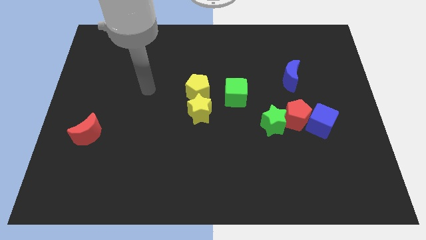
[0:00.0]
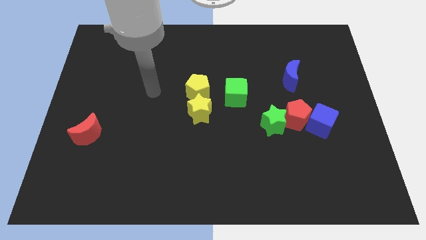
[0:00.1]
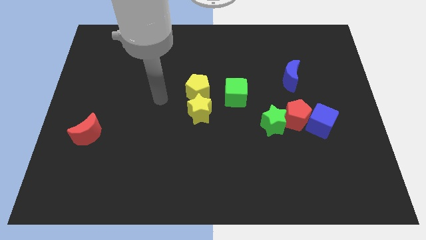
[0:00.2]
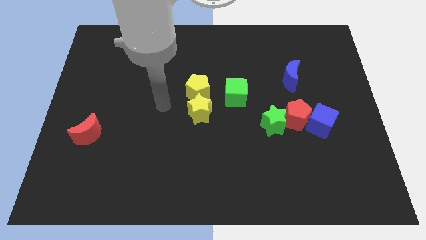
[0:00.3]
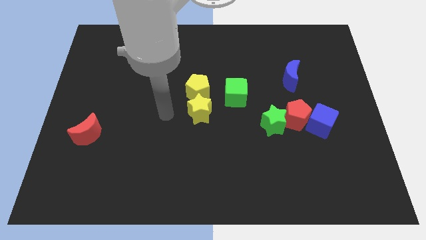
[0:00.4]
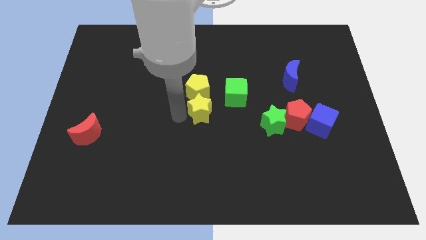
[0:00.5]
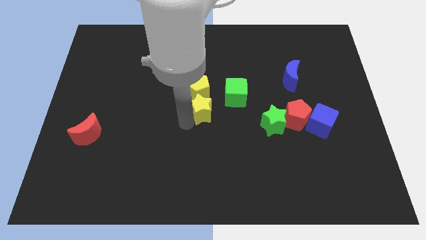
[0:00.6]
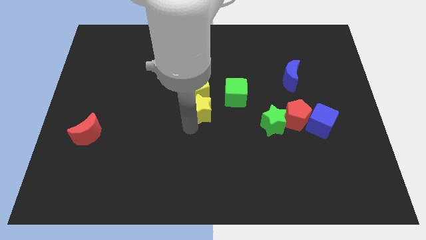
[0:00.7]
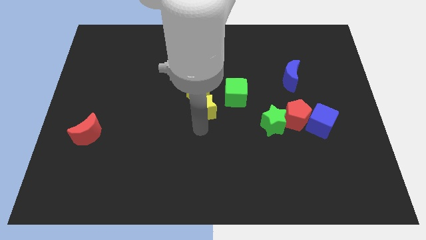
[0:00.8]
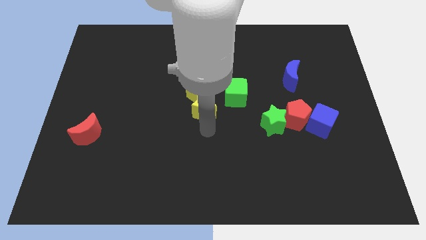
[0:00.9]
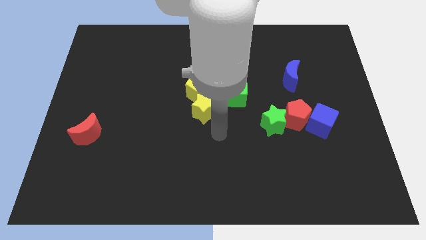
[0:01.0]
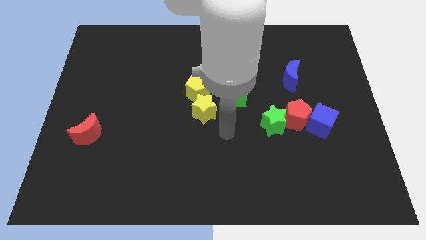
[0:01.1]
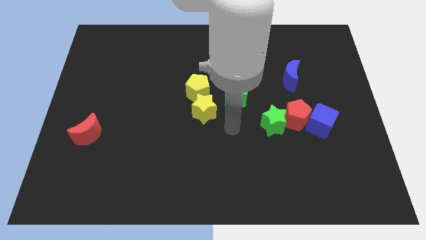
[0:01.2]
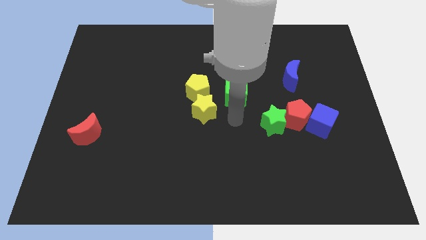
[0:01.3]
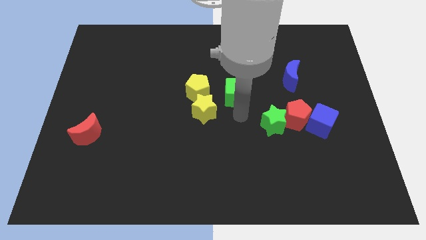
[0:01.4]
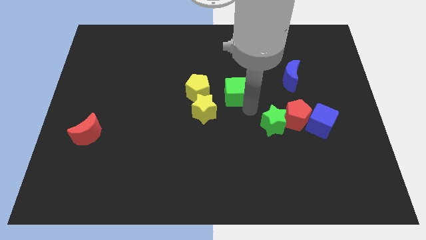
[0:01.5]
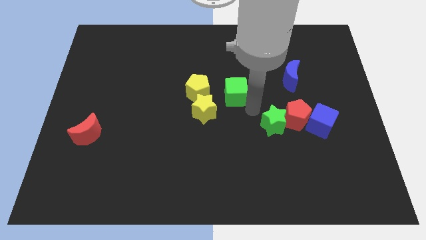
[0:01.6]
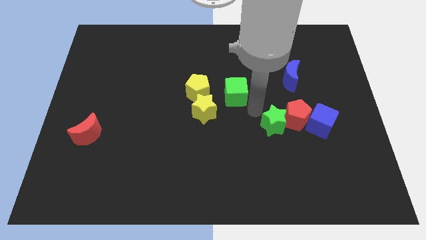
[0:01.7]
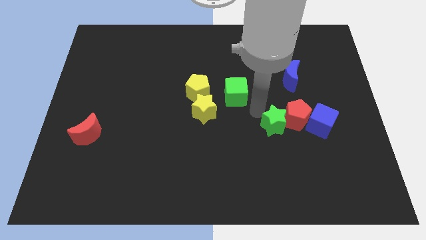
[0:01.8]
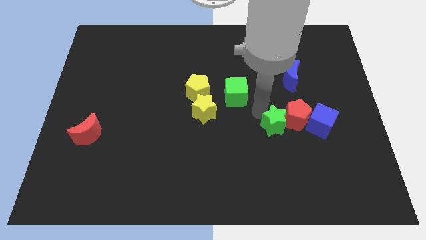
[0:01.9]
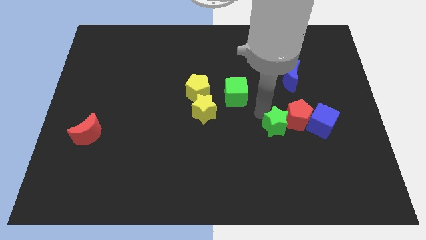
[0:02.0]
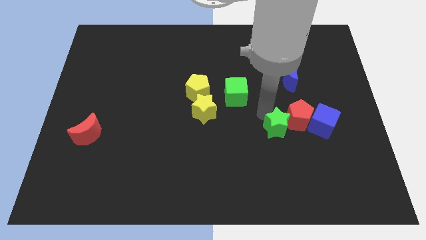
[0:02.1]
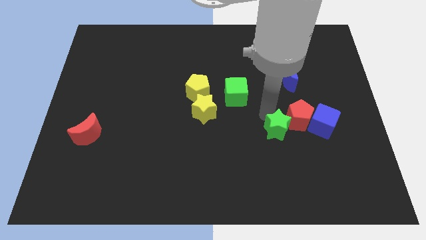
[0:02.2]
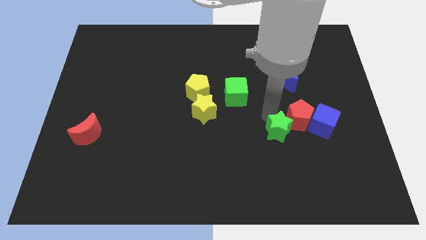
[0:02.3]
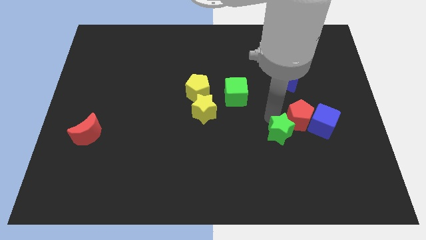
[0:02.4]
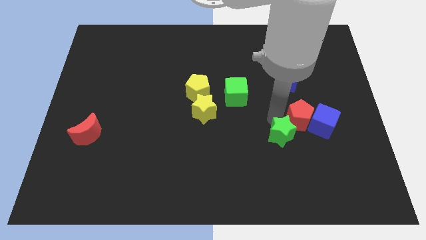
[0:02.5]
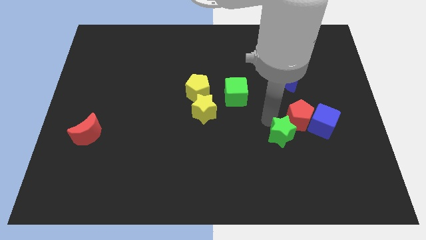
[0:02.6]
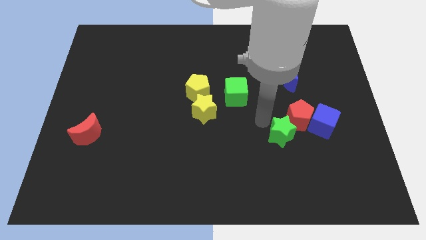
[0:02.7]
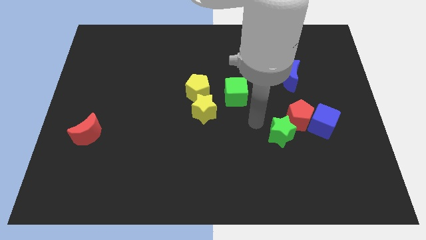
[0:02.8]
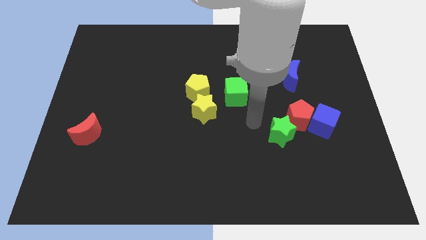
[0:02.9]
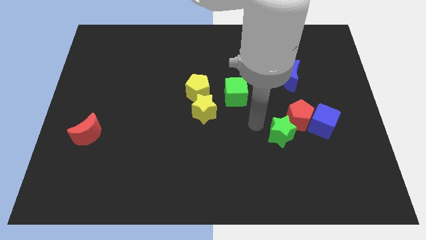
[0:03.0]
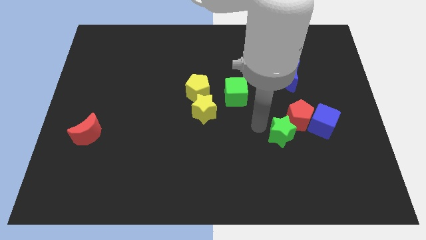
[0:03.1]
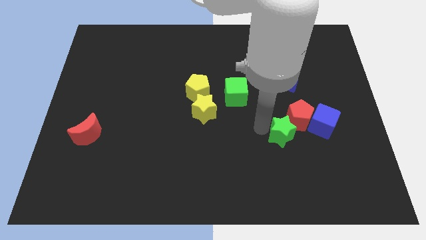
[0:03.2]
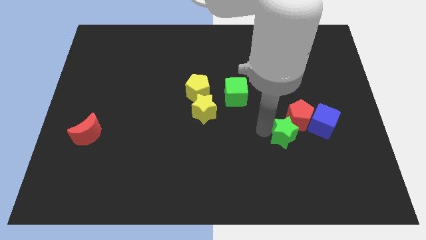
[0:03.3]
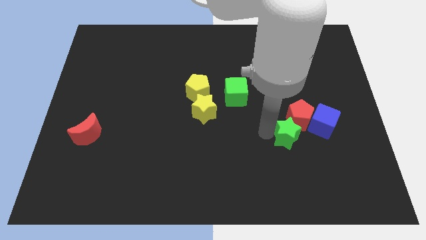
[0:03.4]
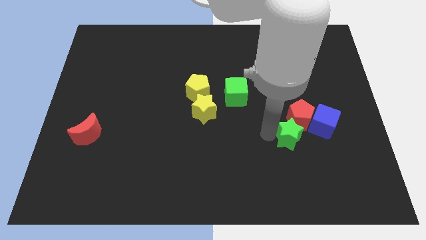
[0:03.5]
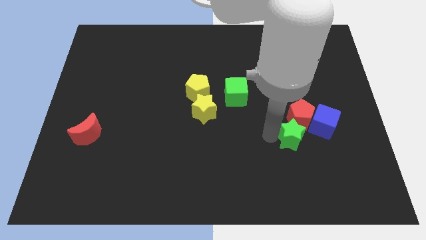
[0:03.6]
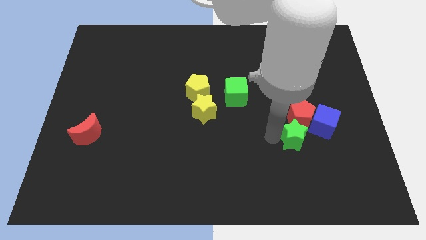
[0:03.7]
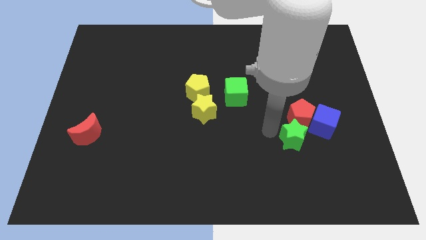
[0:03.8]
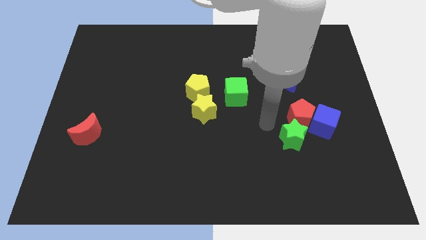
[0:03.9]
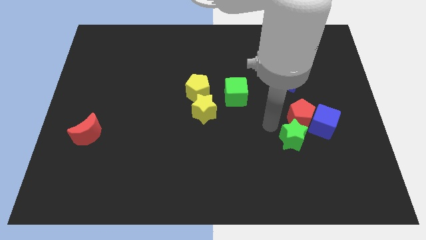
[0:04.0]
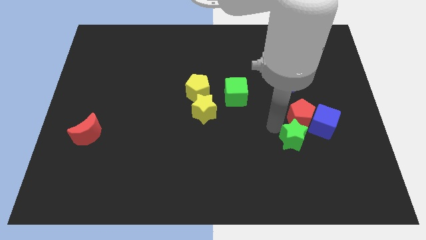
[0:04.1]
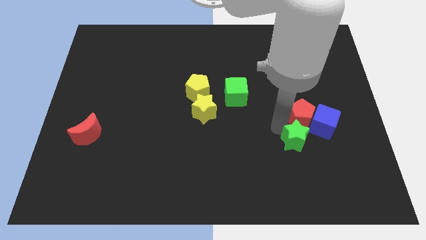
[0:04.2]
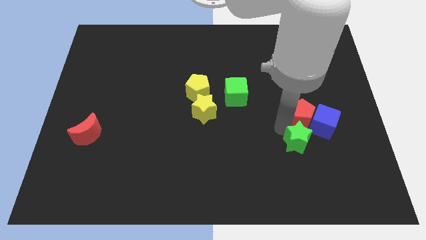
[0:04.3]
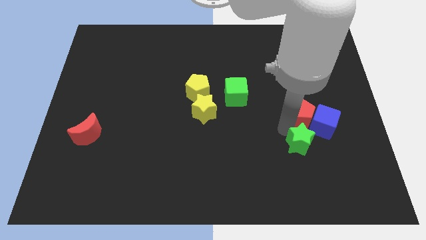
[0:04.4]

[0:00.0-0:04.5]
push the green star down and right diagonally a bit

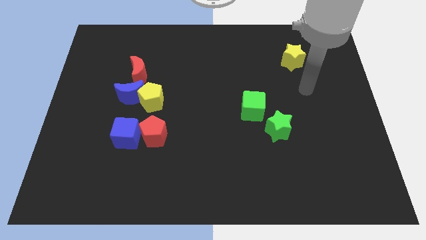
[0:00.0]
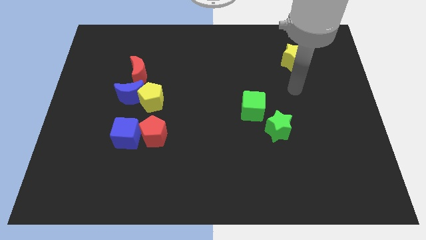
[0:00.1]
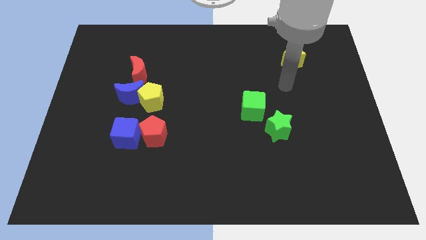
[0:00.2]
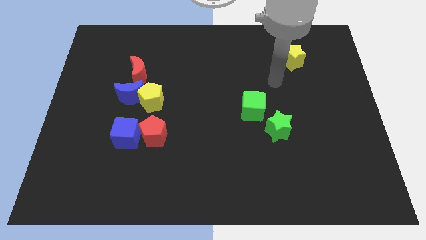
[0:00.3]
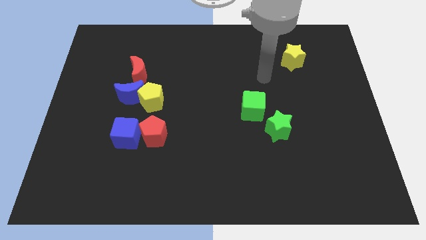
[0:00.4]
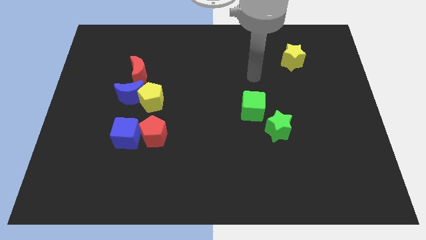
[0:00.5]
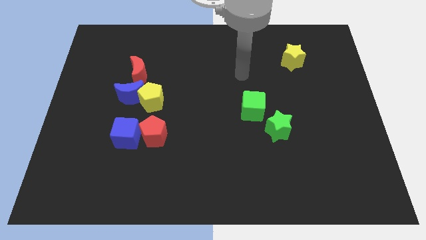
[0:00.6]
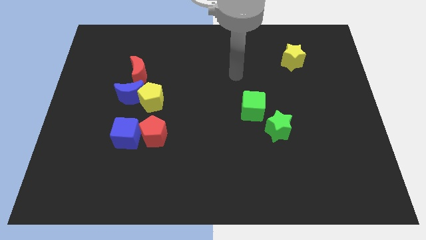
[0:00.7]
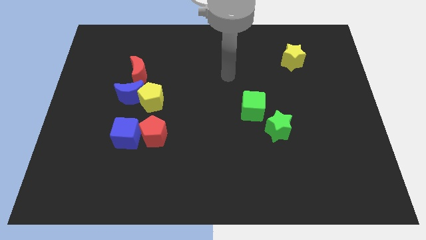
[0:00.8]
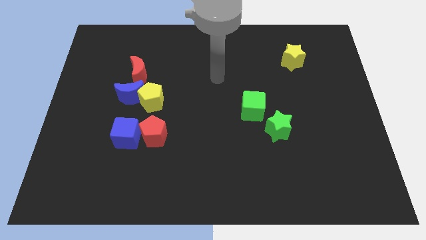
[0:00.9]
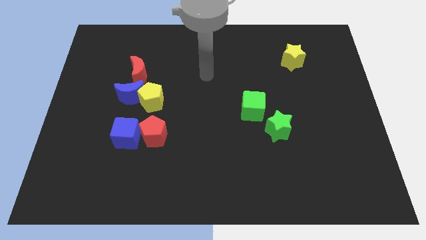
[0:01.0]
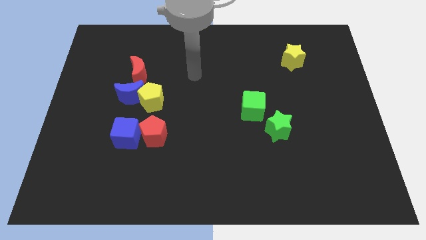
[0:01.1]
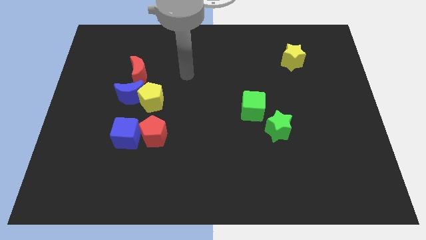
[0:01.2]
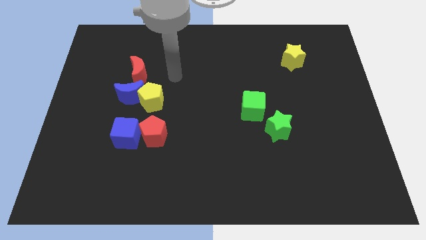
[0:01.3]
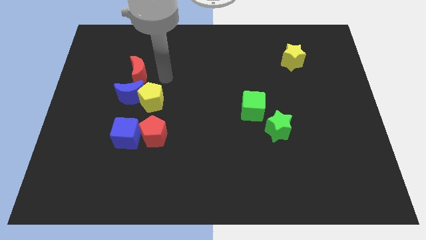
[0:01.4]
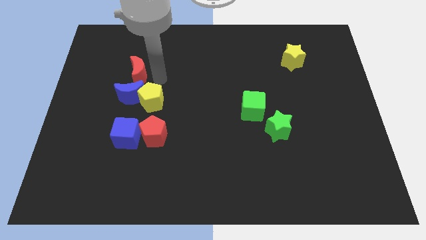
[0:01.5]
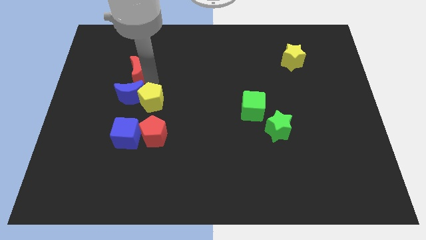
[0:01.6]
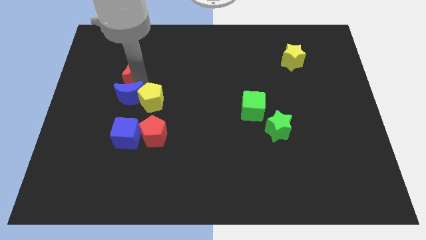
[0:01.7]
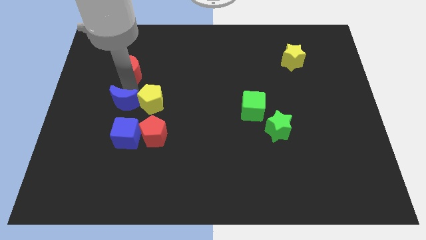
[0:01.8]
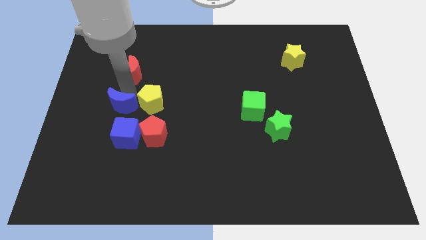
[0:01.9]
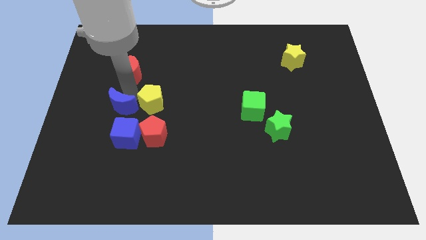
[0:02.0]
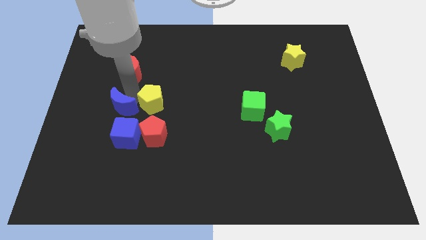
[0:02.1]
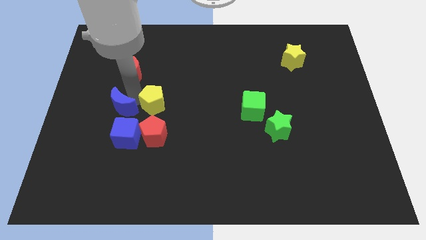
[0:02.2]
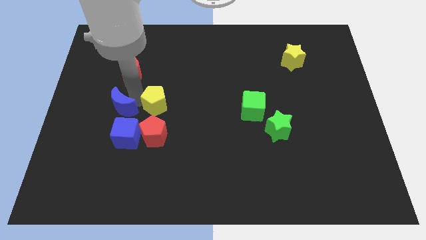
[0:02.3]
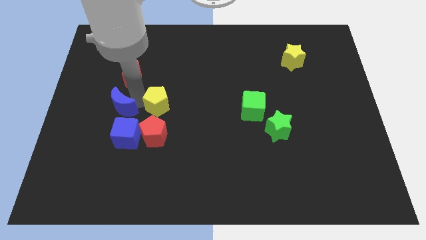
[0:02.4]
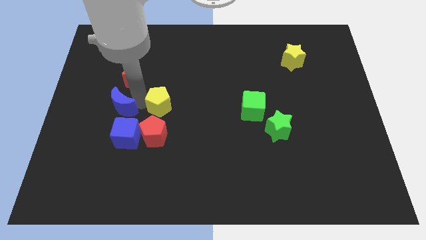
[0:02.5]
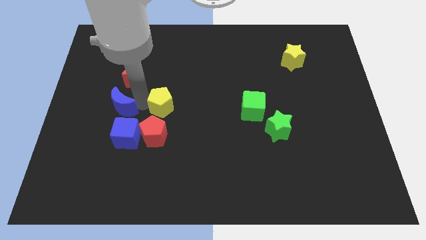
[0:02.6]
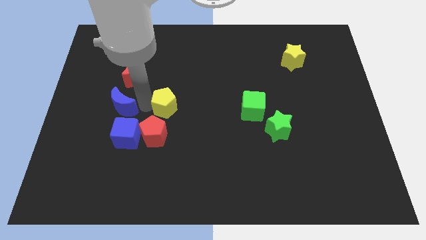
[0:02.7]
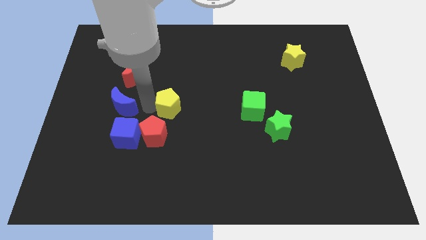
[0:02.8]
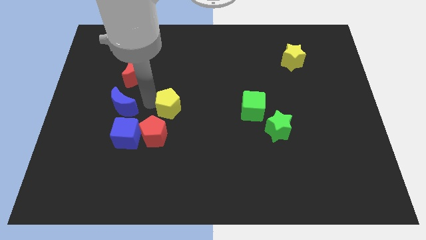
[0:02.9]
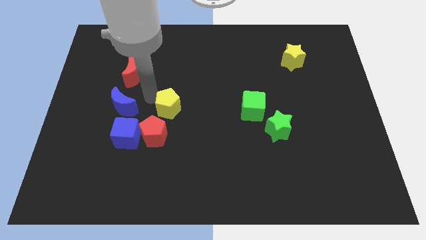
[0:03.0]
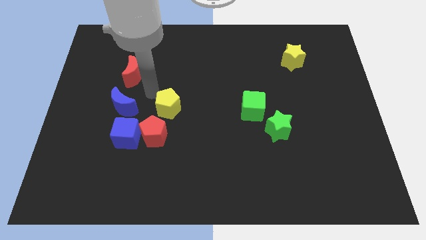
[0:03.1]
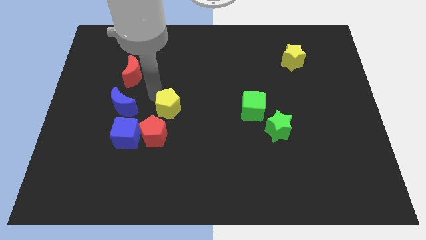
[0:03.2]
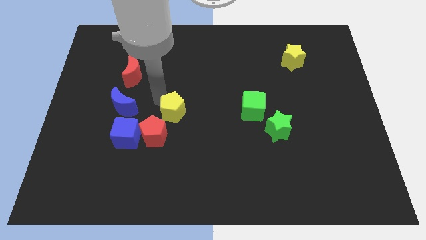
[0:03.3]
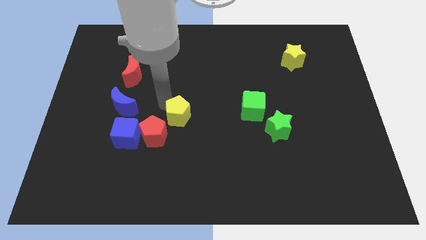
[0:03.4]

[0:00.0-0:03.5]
move the yellow pentagon a bit down and right diagonally
